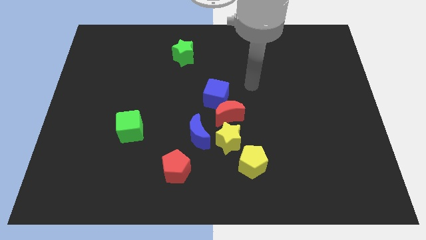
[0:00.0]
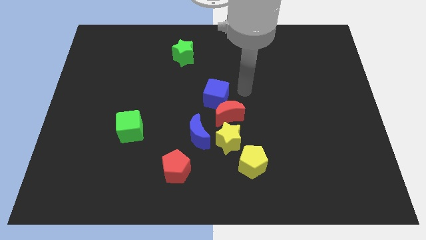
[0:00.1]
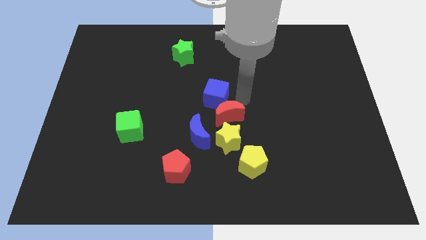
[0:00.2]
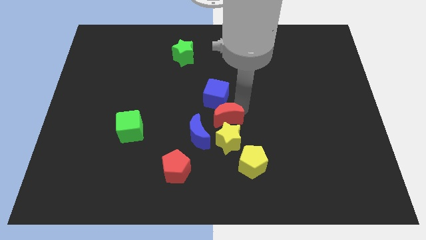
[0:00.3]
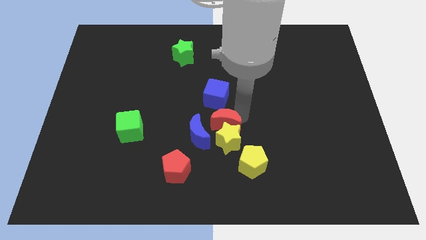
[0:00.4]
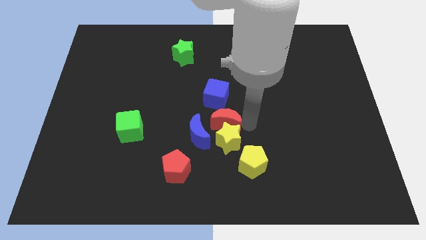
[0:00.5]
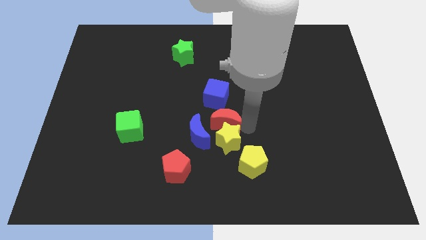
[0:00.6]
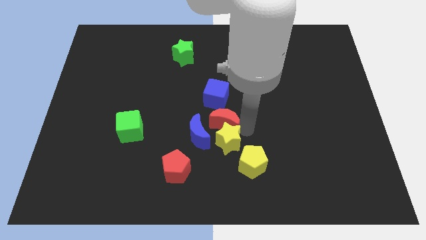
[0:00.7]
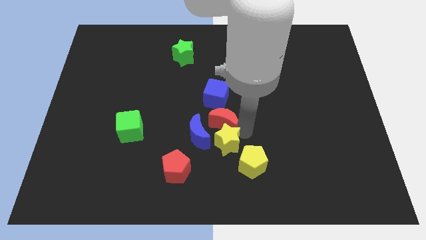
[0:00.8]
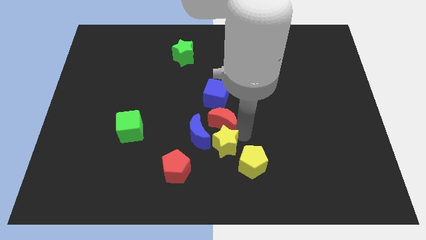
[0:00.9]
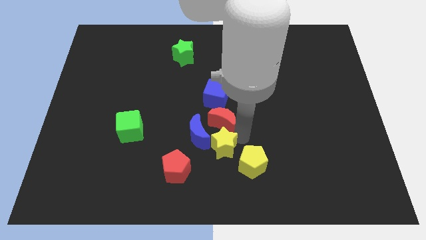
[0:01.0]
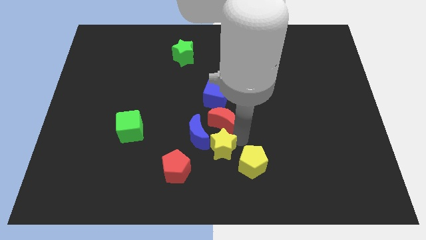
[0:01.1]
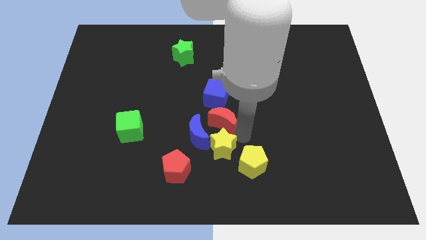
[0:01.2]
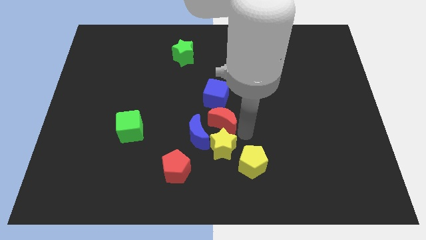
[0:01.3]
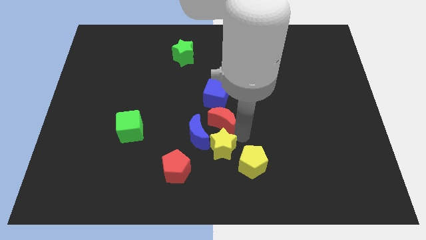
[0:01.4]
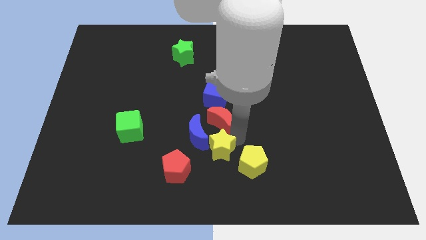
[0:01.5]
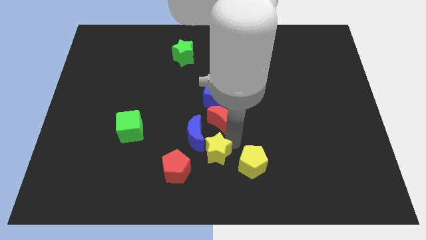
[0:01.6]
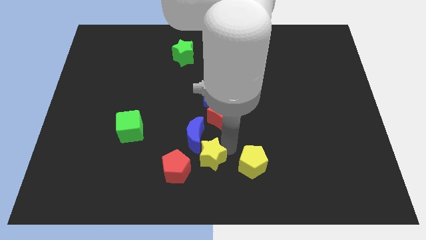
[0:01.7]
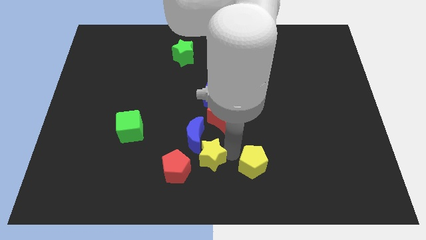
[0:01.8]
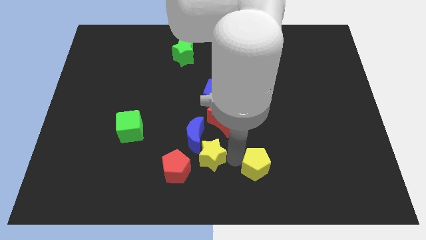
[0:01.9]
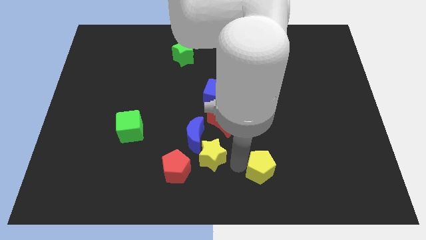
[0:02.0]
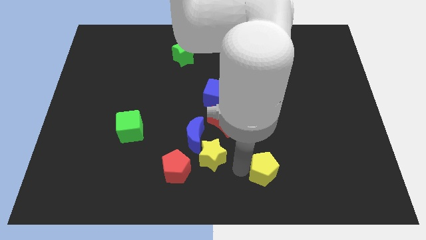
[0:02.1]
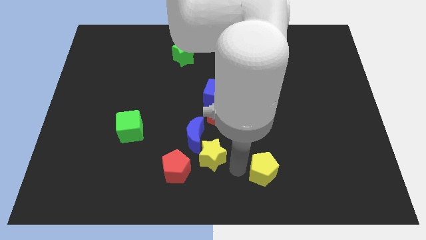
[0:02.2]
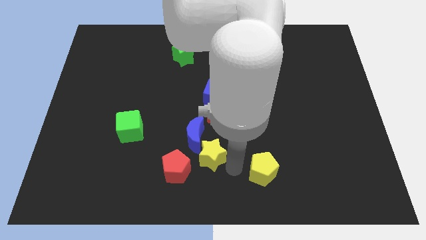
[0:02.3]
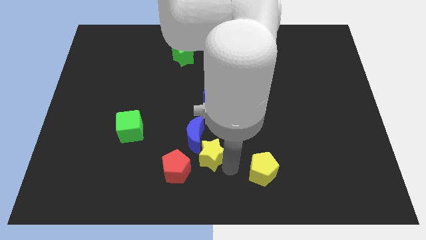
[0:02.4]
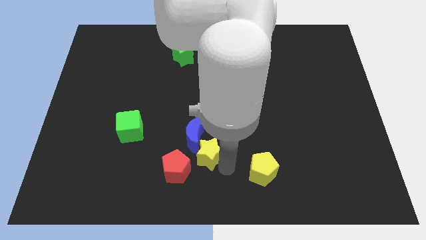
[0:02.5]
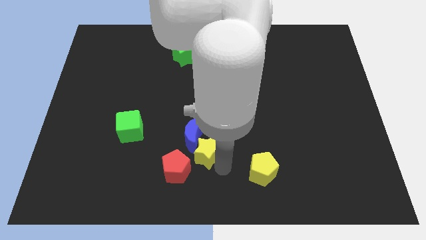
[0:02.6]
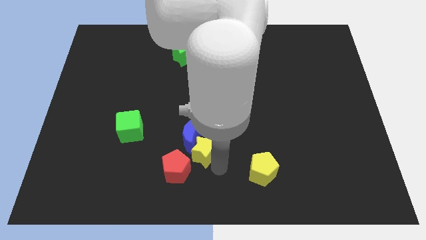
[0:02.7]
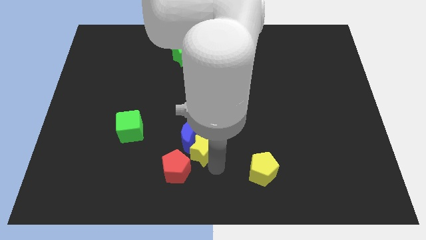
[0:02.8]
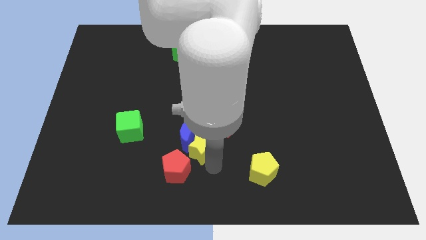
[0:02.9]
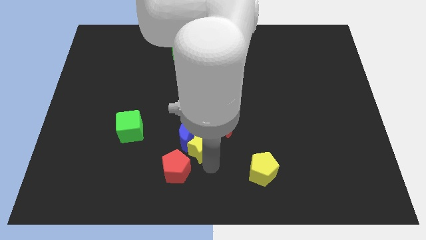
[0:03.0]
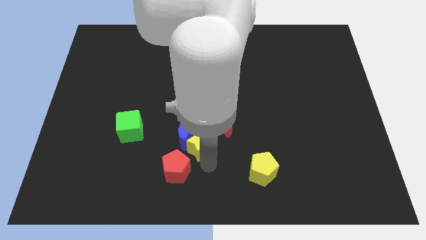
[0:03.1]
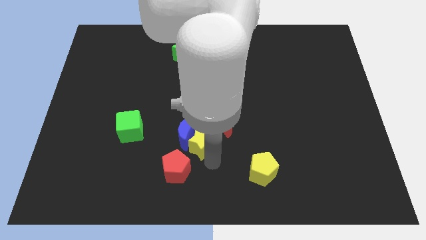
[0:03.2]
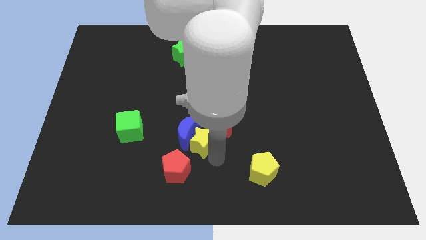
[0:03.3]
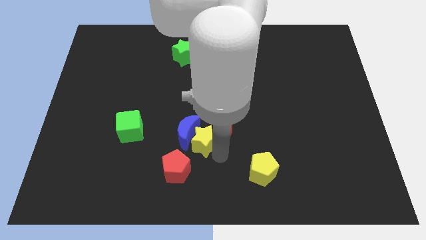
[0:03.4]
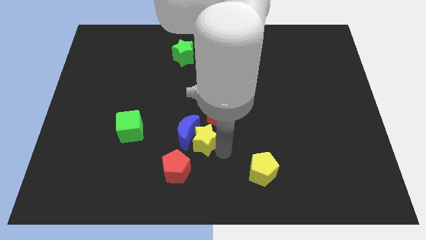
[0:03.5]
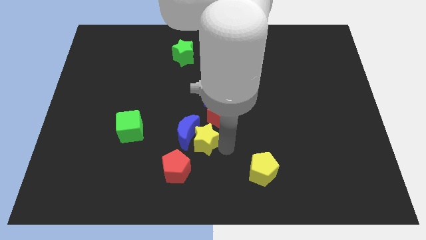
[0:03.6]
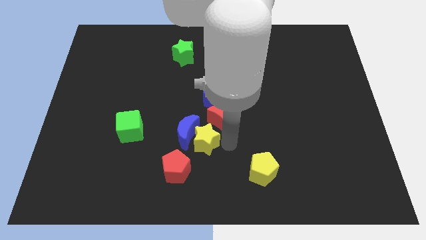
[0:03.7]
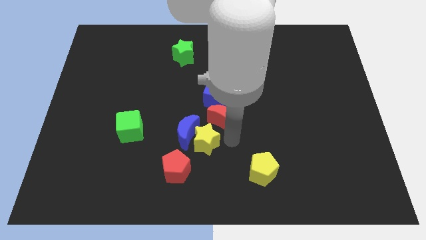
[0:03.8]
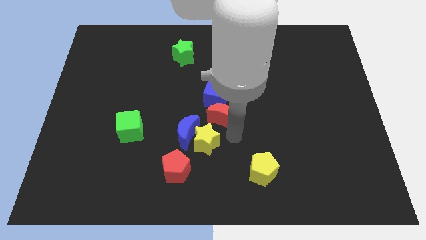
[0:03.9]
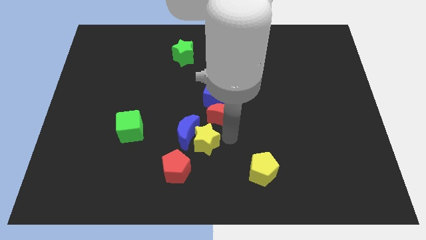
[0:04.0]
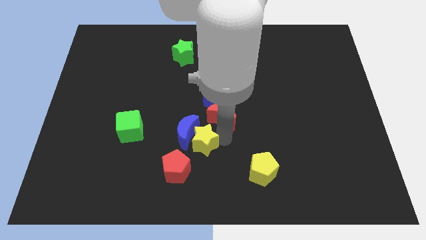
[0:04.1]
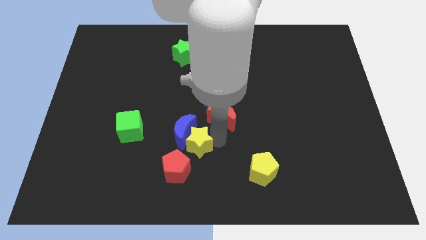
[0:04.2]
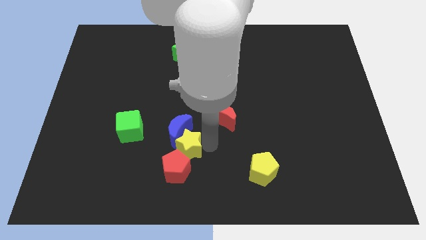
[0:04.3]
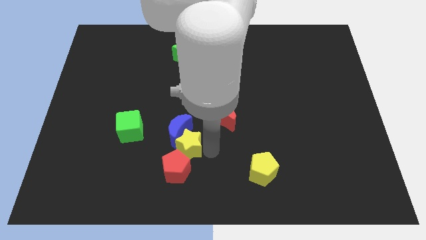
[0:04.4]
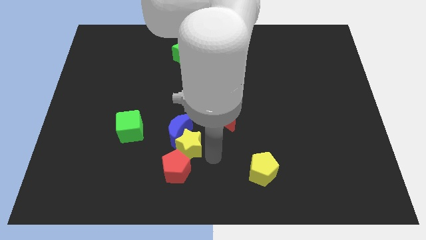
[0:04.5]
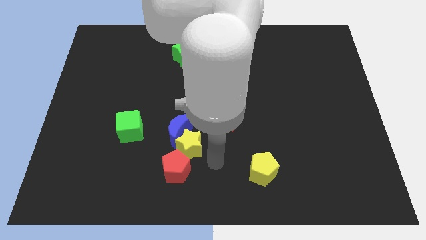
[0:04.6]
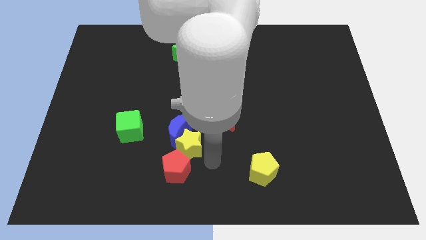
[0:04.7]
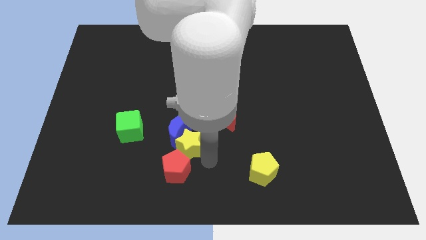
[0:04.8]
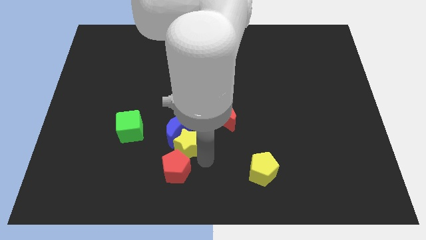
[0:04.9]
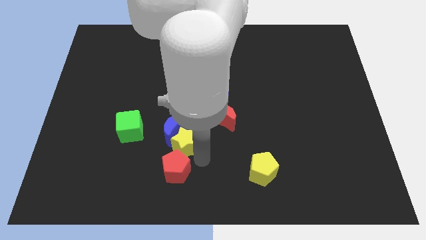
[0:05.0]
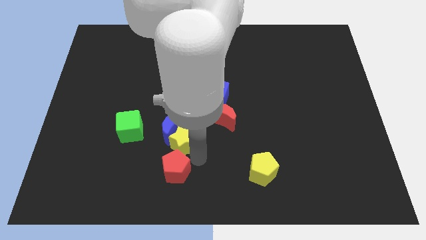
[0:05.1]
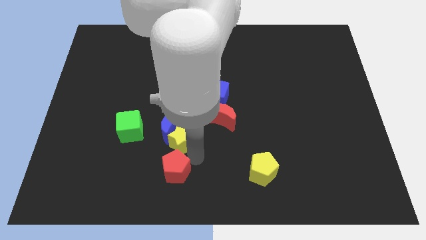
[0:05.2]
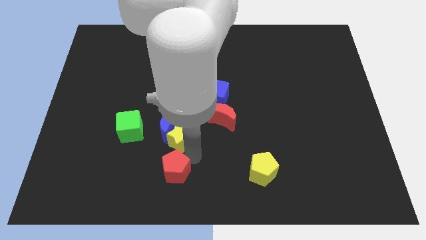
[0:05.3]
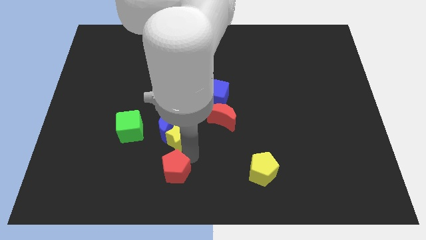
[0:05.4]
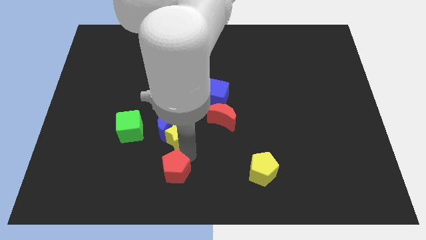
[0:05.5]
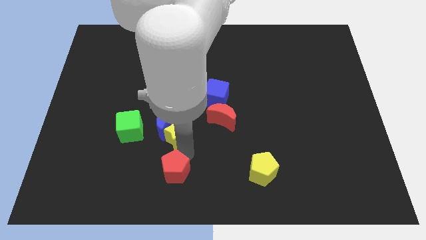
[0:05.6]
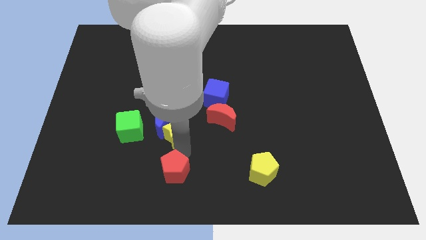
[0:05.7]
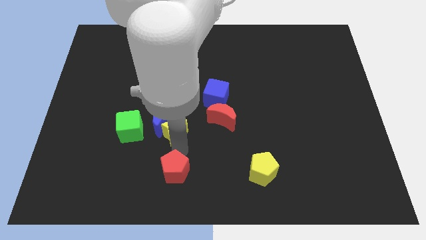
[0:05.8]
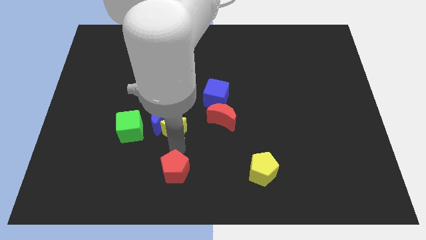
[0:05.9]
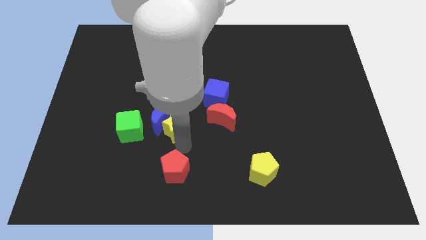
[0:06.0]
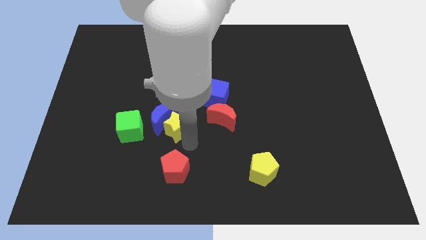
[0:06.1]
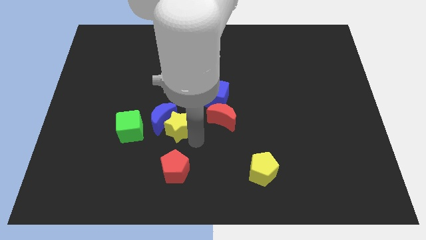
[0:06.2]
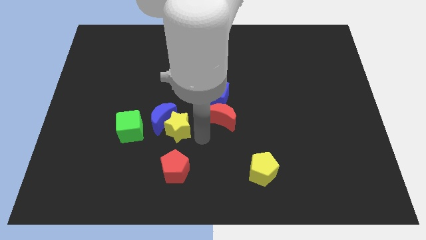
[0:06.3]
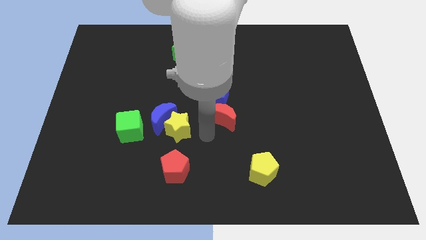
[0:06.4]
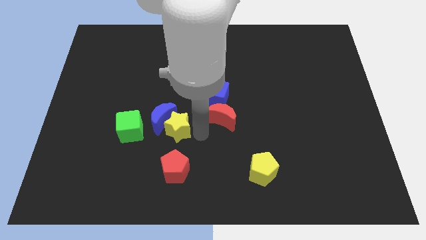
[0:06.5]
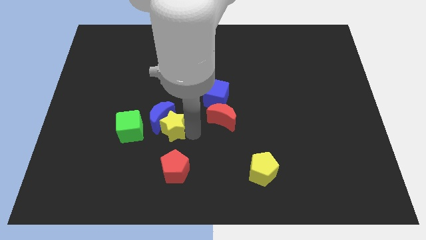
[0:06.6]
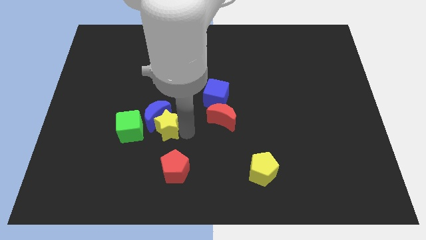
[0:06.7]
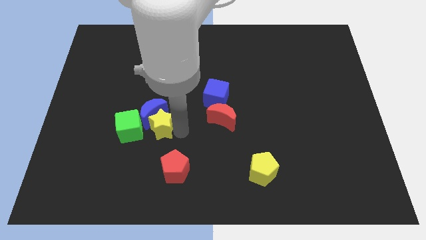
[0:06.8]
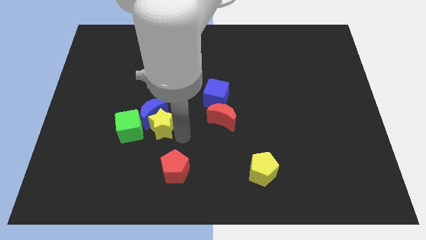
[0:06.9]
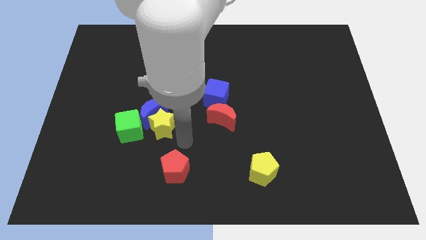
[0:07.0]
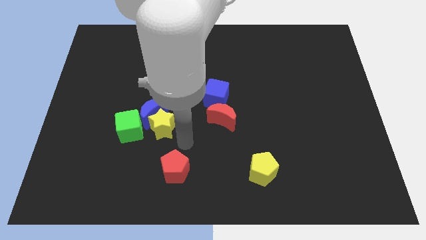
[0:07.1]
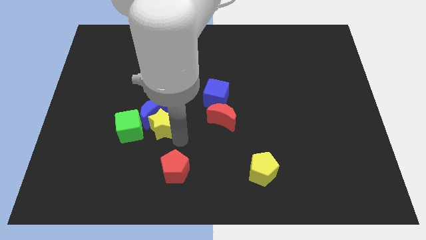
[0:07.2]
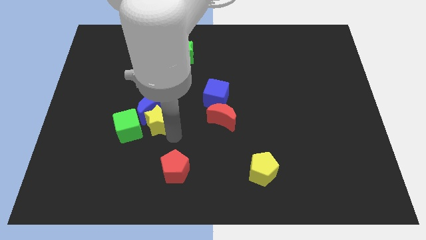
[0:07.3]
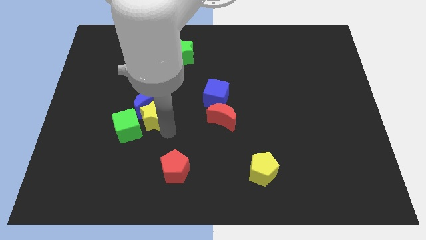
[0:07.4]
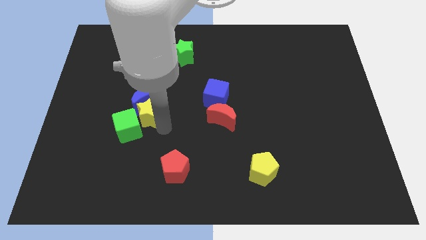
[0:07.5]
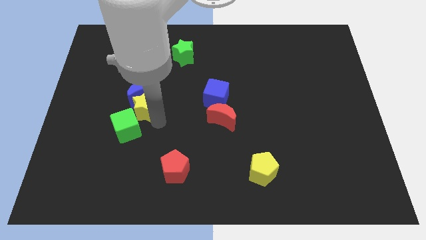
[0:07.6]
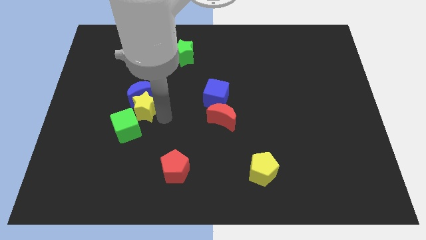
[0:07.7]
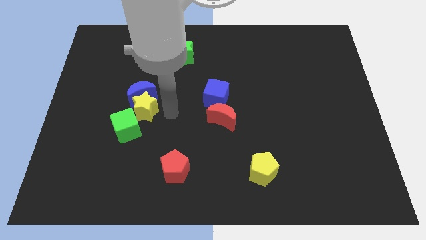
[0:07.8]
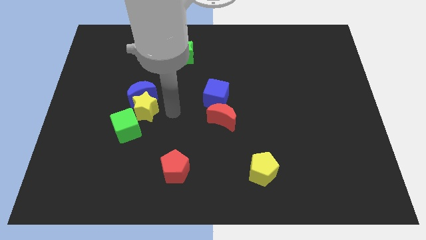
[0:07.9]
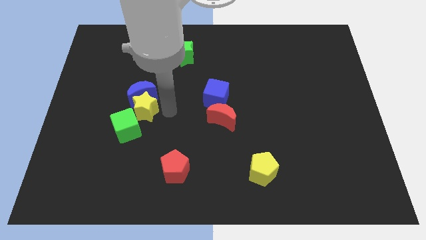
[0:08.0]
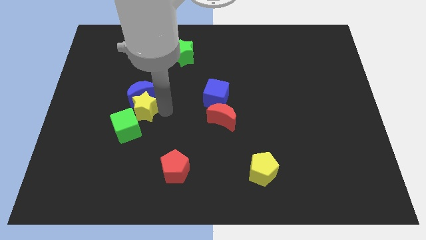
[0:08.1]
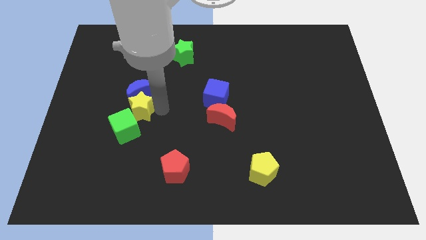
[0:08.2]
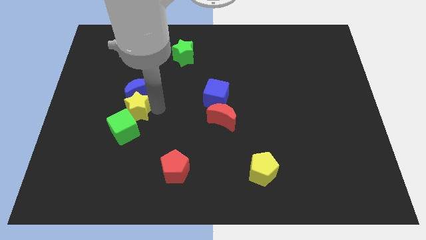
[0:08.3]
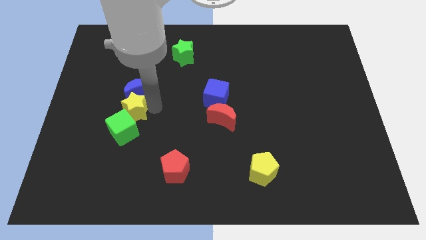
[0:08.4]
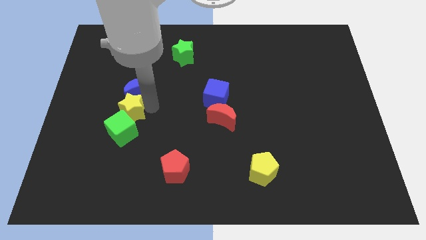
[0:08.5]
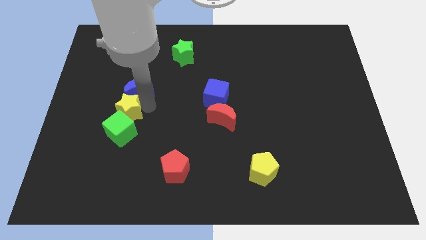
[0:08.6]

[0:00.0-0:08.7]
move the yellow star to the top left of the green cube
